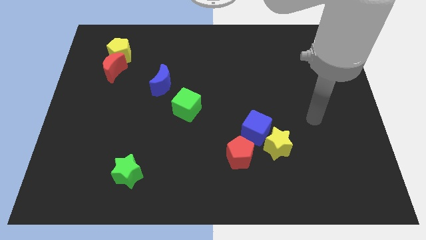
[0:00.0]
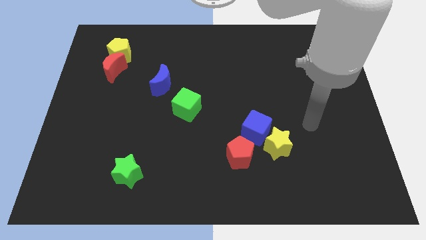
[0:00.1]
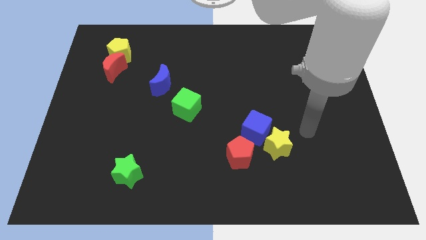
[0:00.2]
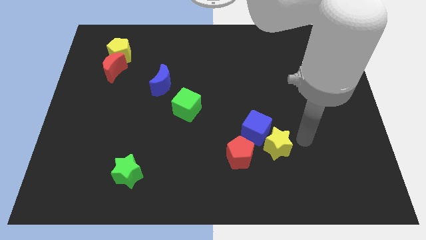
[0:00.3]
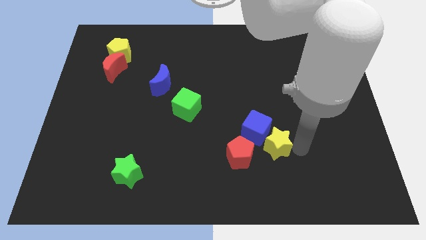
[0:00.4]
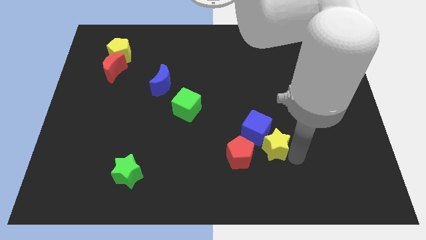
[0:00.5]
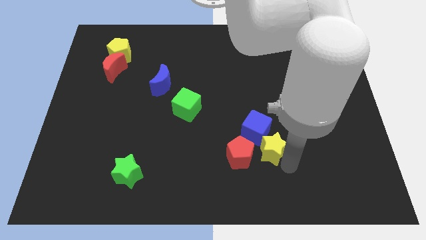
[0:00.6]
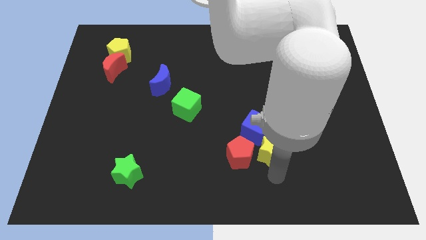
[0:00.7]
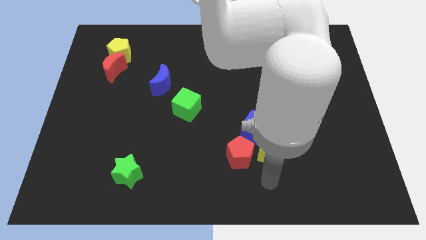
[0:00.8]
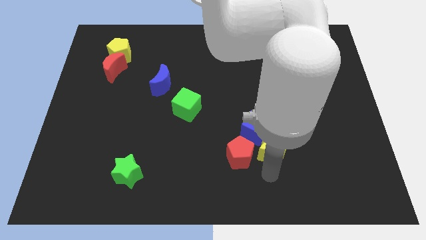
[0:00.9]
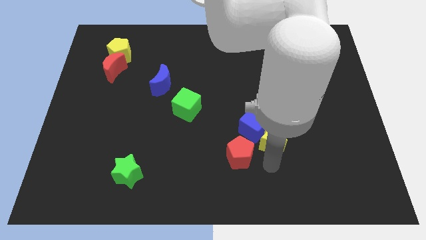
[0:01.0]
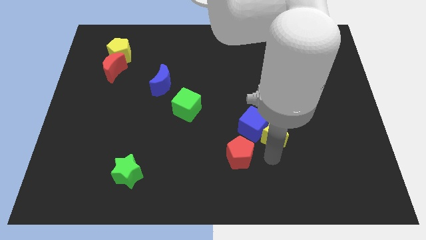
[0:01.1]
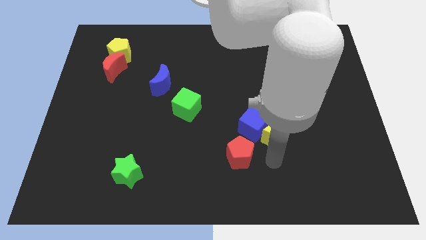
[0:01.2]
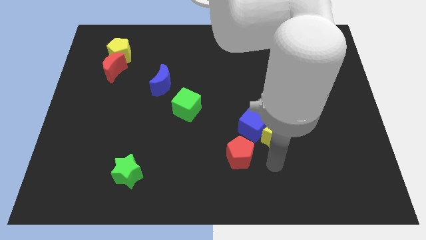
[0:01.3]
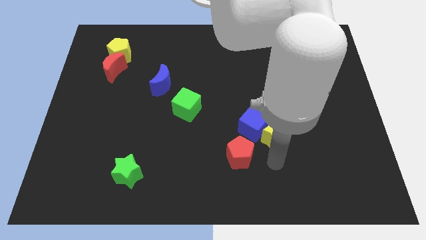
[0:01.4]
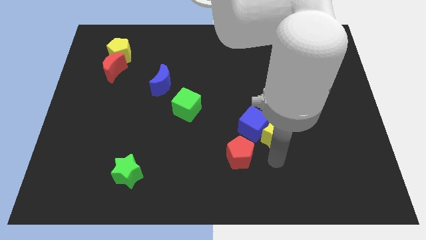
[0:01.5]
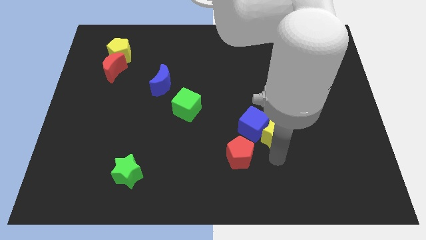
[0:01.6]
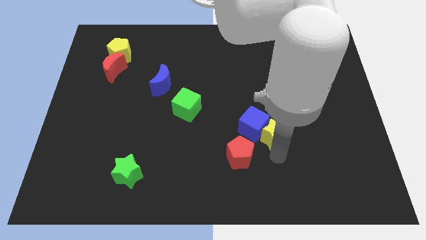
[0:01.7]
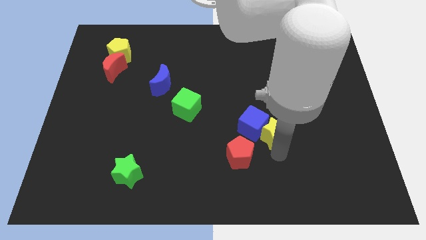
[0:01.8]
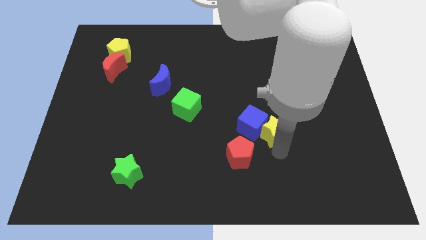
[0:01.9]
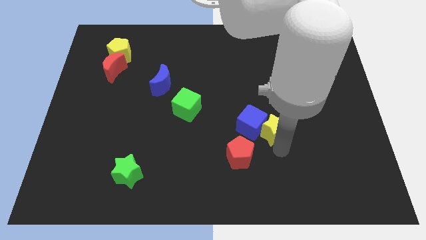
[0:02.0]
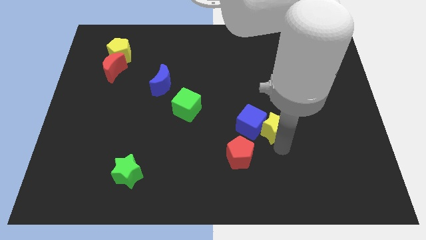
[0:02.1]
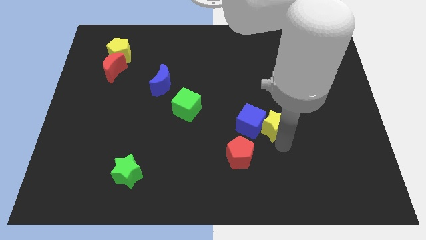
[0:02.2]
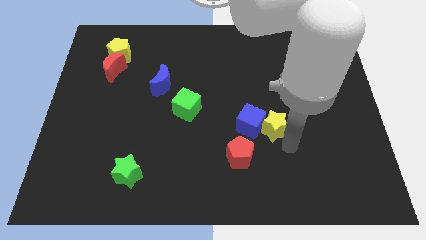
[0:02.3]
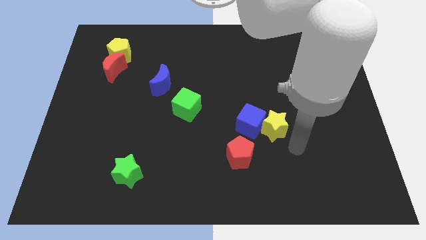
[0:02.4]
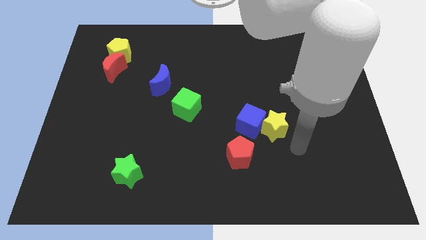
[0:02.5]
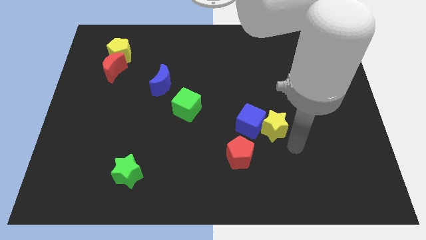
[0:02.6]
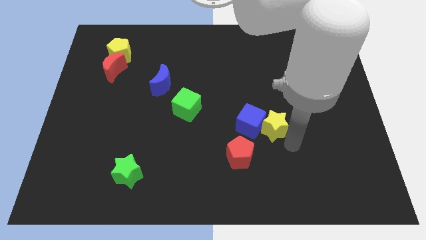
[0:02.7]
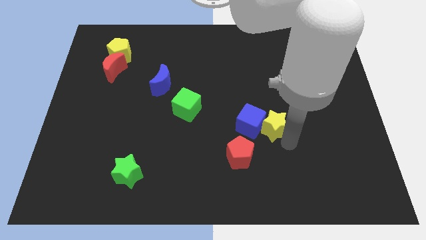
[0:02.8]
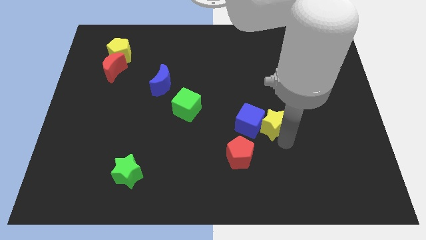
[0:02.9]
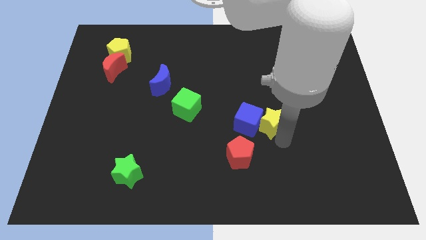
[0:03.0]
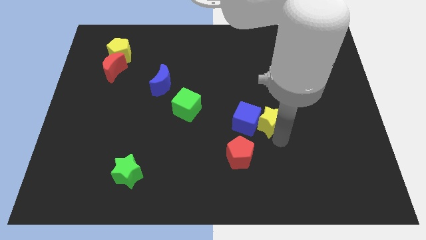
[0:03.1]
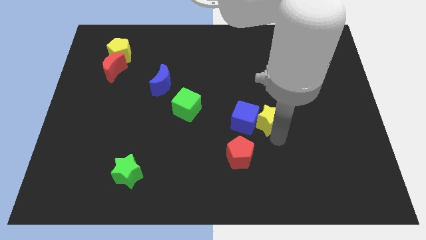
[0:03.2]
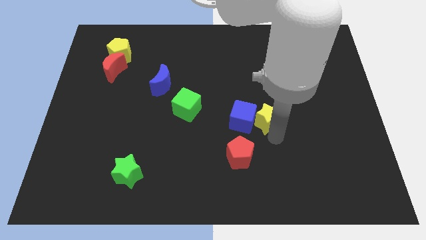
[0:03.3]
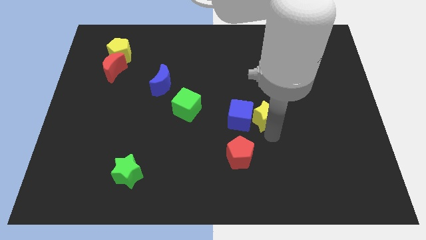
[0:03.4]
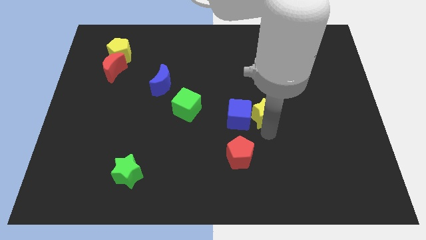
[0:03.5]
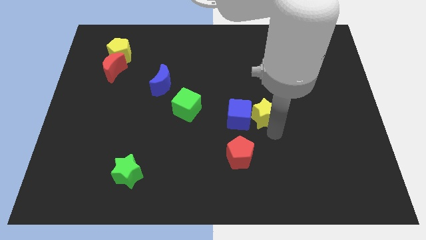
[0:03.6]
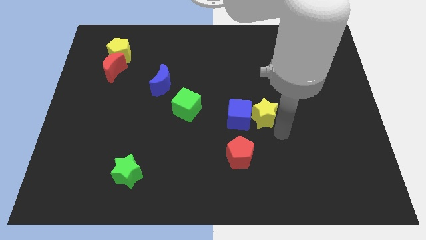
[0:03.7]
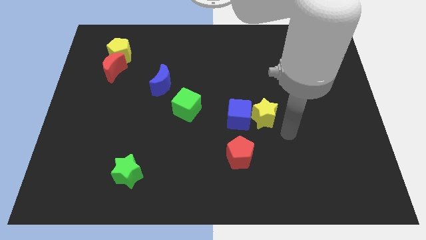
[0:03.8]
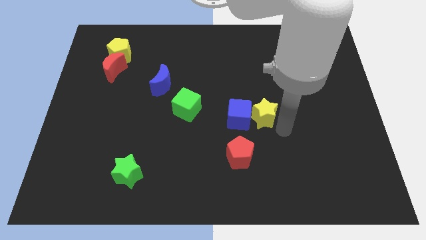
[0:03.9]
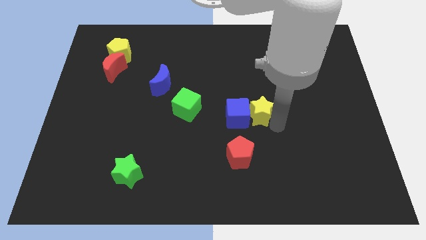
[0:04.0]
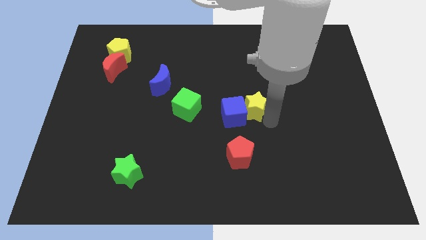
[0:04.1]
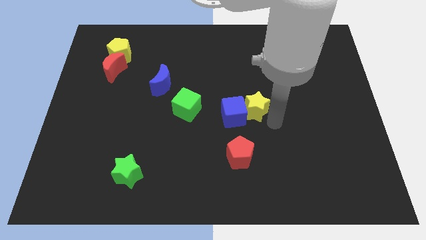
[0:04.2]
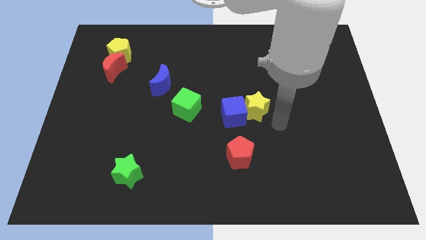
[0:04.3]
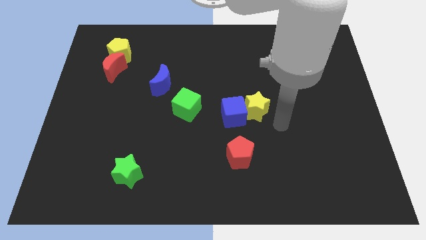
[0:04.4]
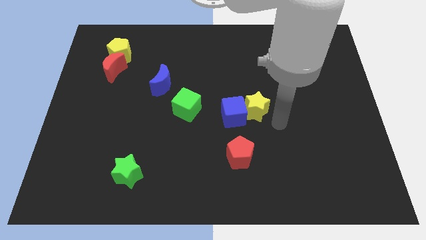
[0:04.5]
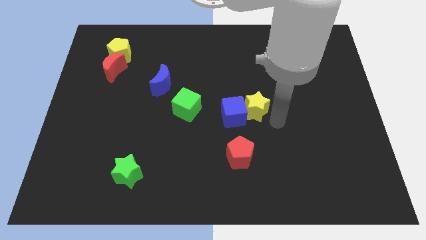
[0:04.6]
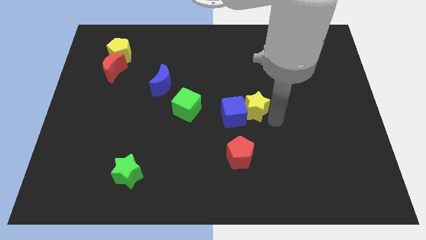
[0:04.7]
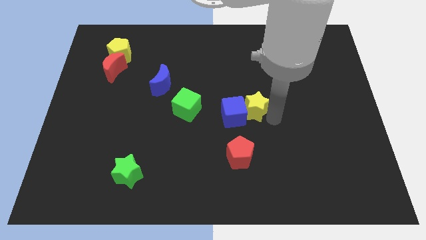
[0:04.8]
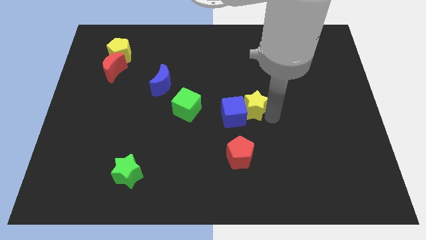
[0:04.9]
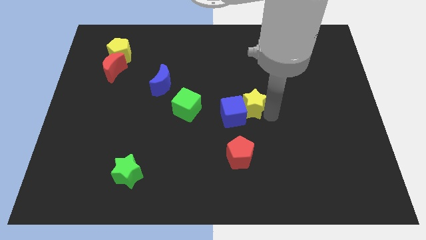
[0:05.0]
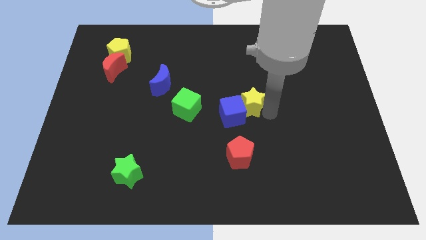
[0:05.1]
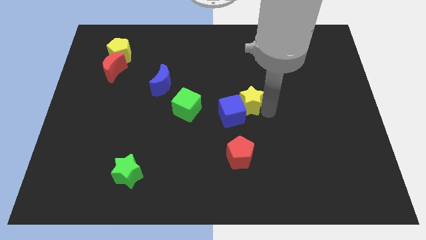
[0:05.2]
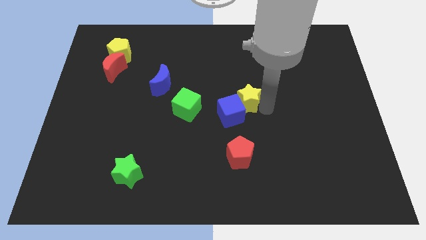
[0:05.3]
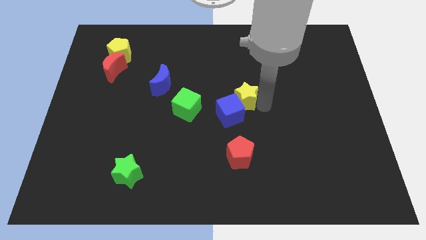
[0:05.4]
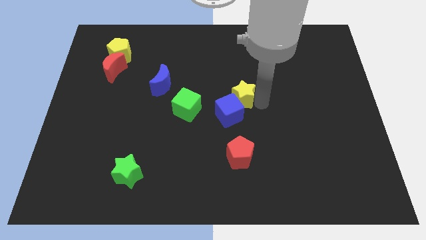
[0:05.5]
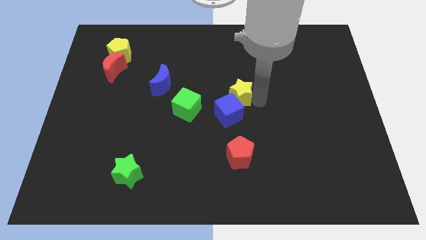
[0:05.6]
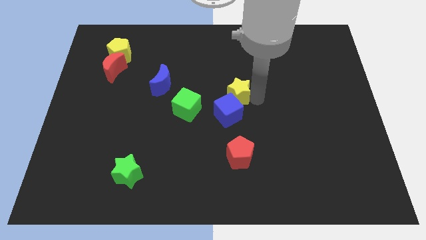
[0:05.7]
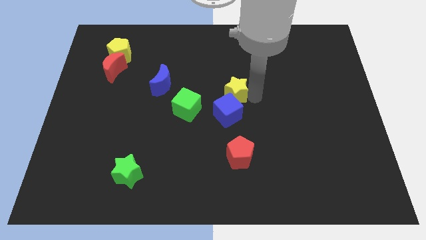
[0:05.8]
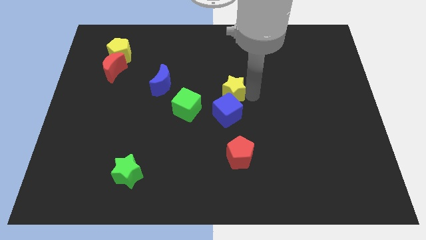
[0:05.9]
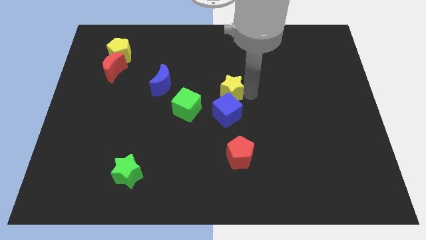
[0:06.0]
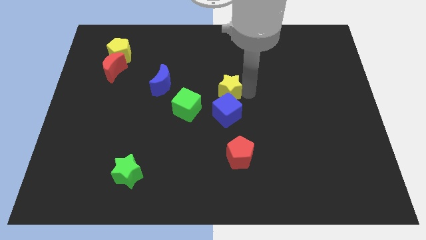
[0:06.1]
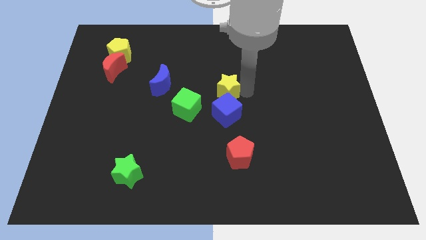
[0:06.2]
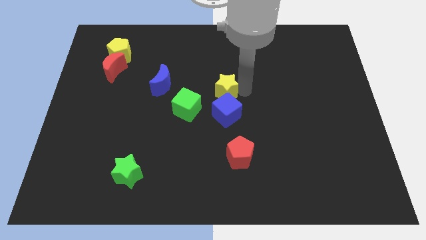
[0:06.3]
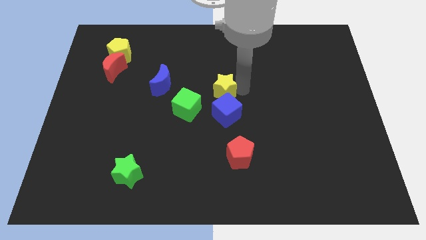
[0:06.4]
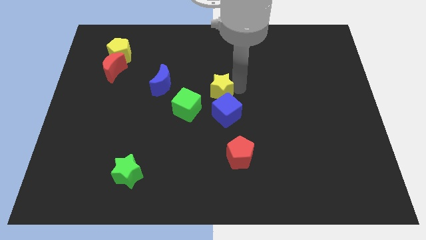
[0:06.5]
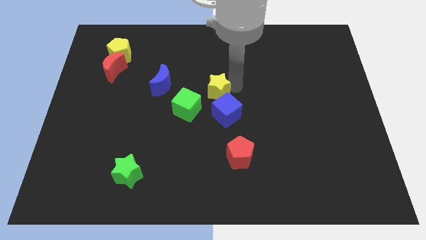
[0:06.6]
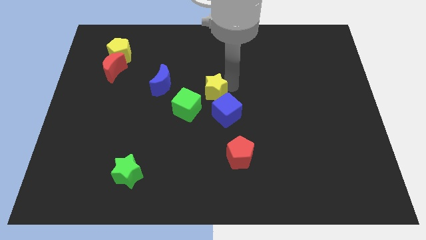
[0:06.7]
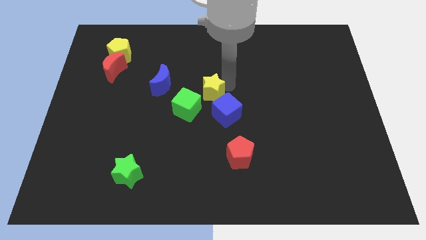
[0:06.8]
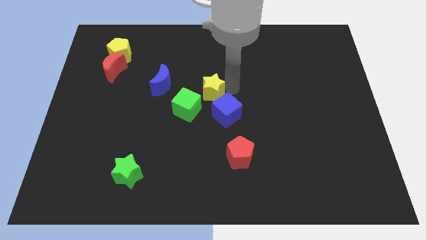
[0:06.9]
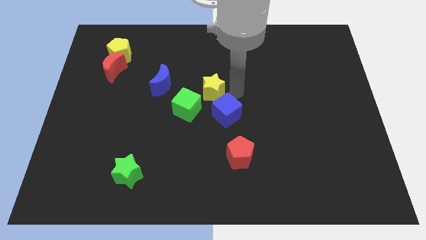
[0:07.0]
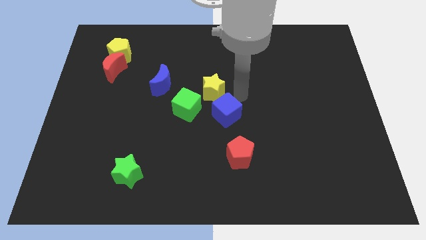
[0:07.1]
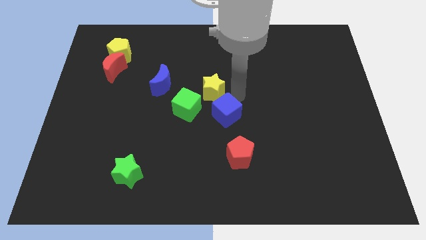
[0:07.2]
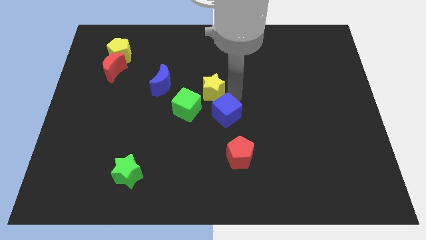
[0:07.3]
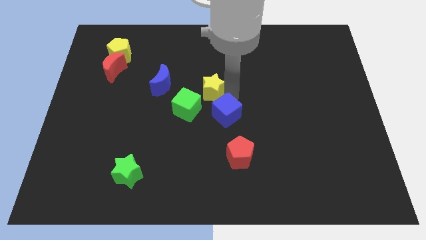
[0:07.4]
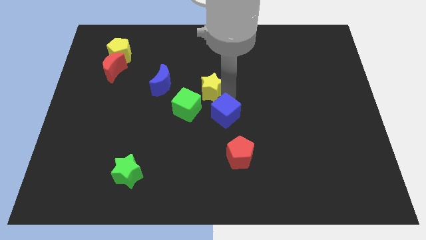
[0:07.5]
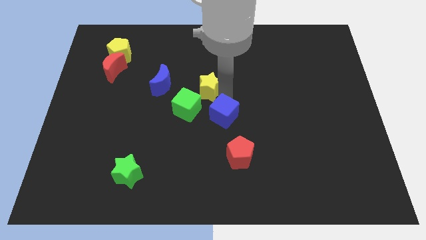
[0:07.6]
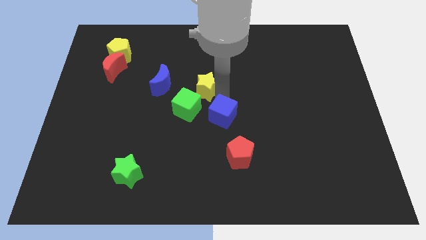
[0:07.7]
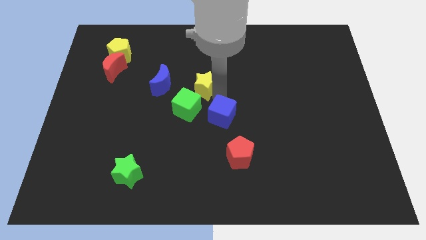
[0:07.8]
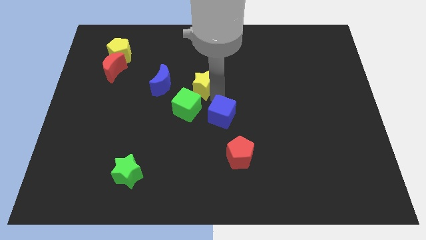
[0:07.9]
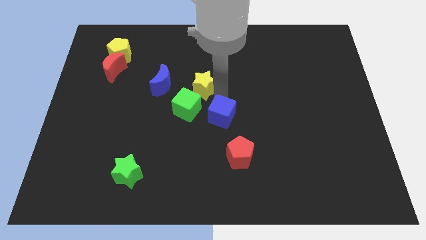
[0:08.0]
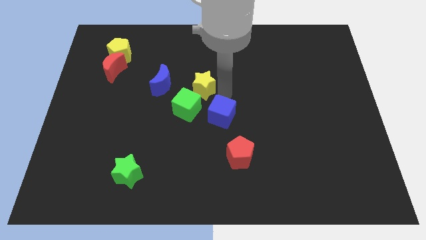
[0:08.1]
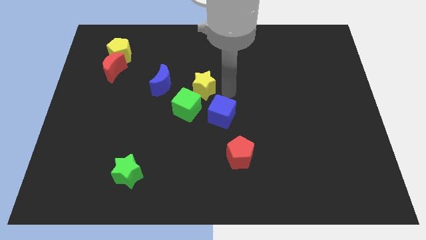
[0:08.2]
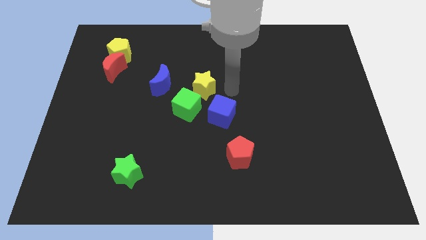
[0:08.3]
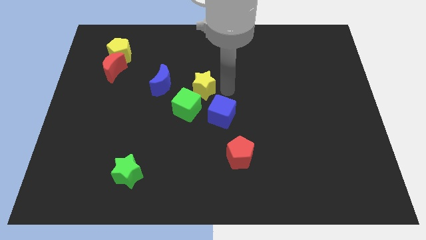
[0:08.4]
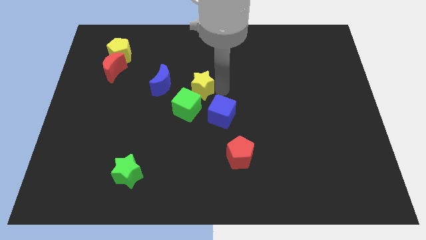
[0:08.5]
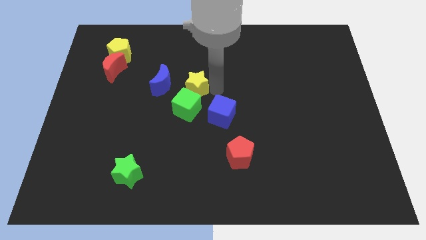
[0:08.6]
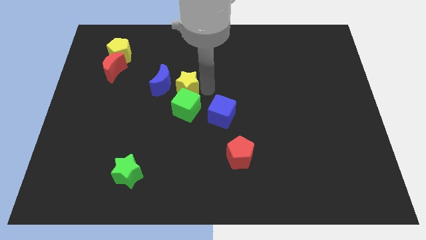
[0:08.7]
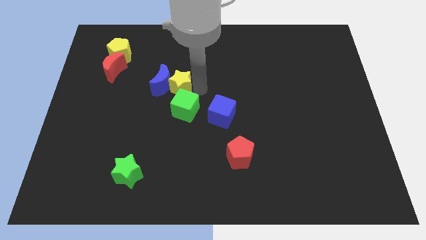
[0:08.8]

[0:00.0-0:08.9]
push the yellow star to the blue moon
